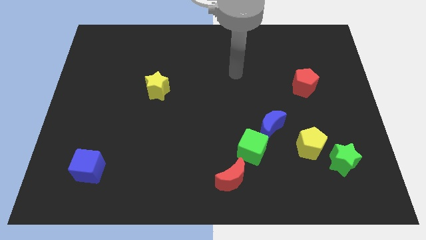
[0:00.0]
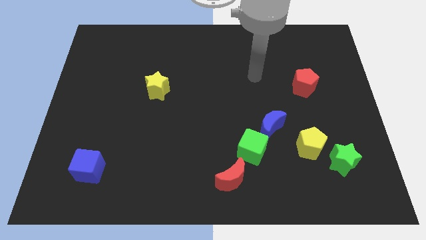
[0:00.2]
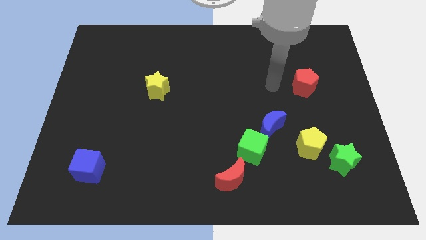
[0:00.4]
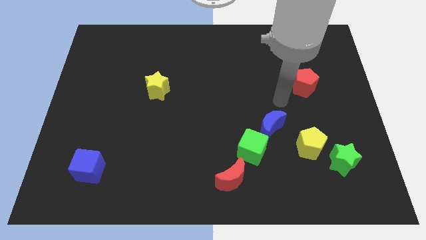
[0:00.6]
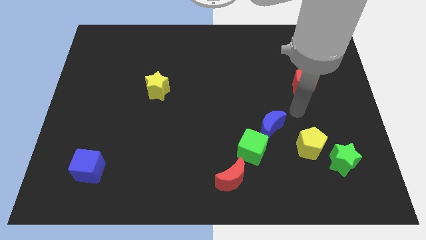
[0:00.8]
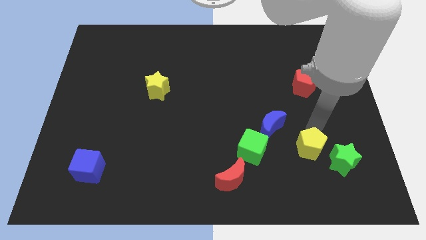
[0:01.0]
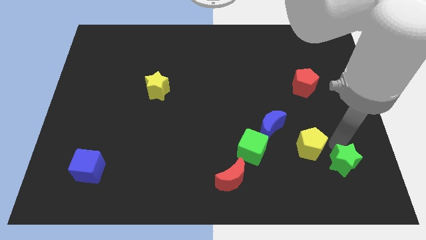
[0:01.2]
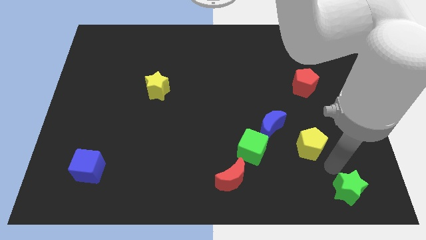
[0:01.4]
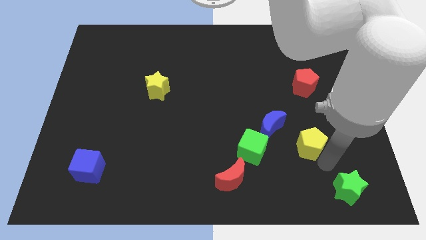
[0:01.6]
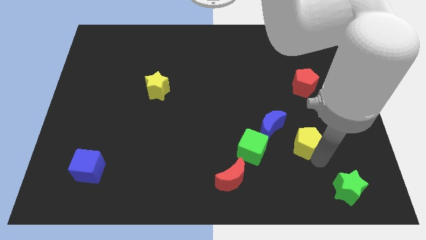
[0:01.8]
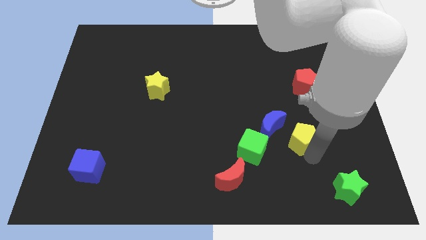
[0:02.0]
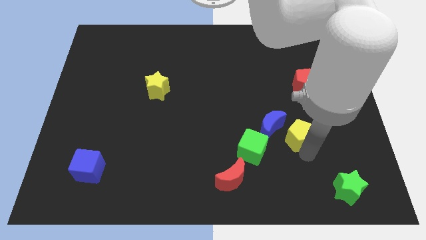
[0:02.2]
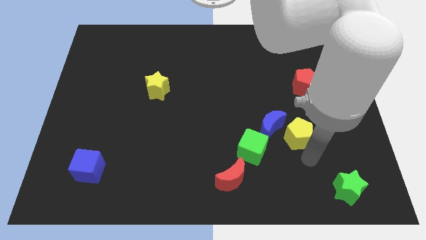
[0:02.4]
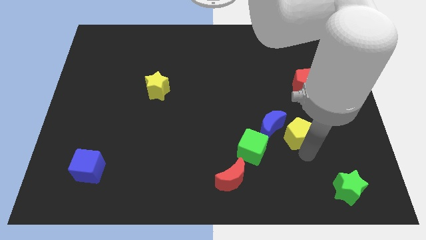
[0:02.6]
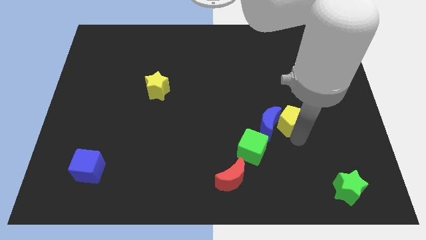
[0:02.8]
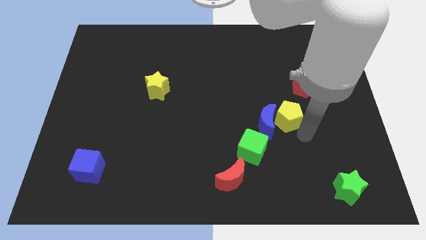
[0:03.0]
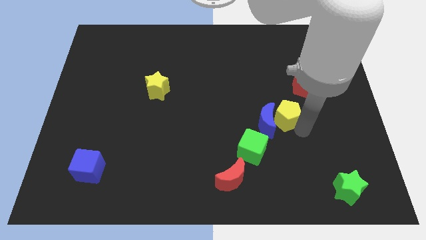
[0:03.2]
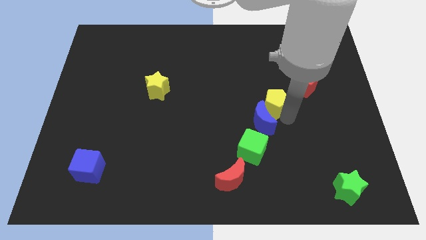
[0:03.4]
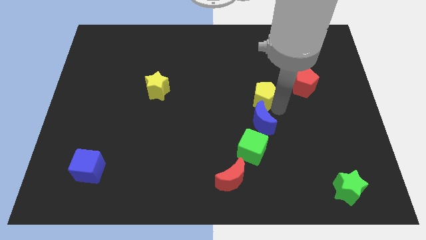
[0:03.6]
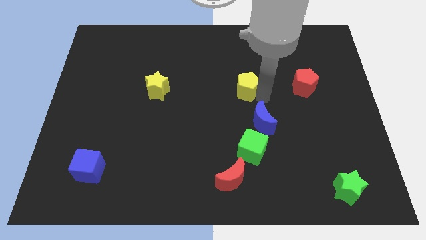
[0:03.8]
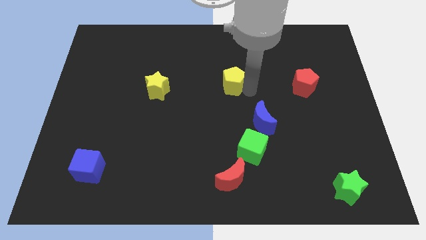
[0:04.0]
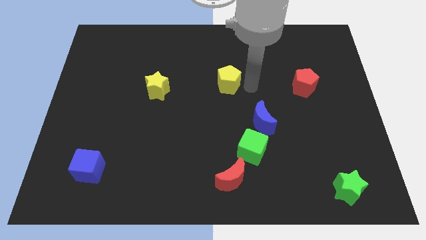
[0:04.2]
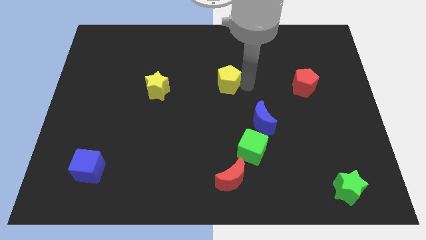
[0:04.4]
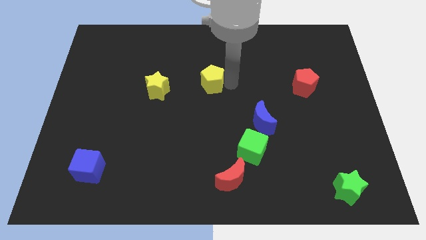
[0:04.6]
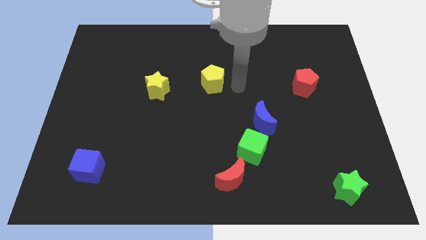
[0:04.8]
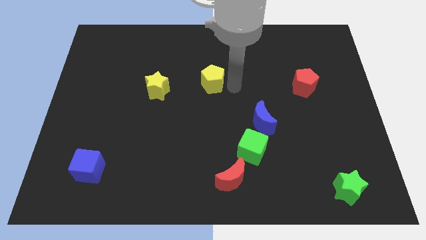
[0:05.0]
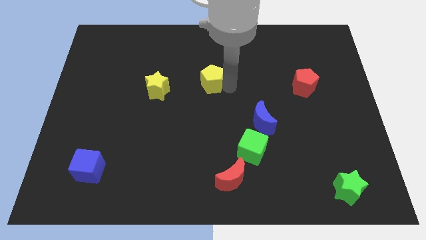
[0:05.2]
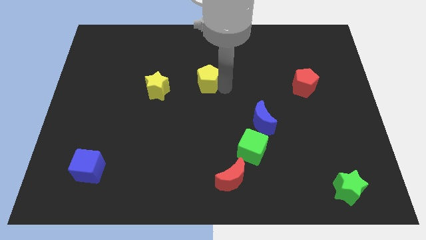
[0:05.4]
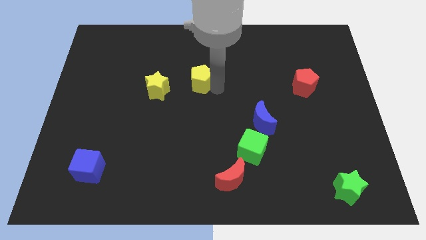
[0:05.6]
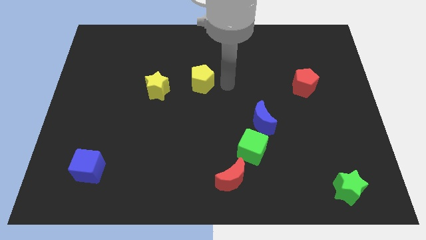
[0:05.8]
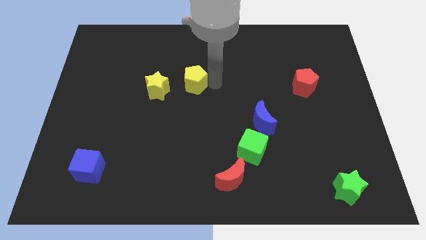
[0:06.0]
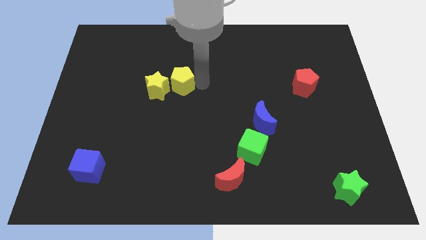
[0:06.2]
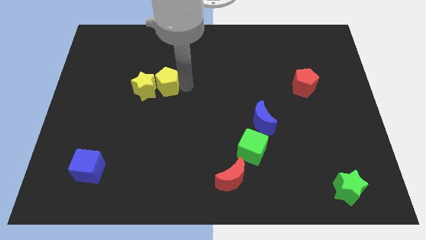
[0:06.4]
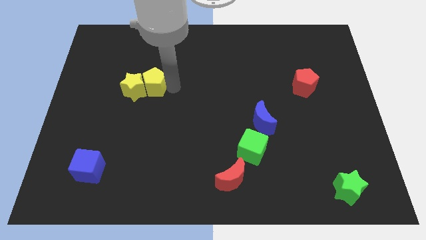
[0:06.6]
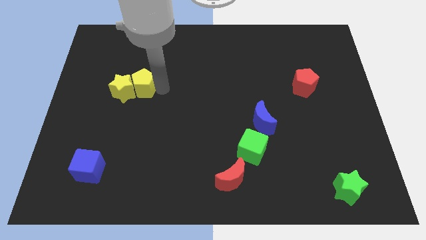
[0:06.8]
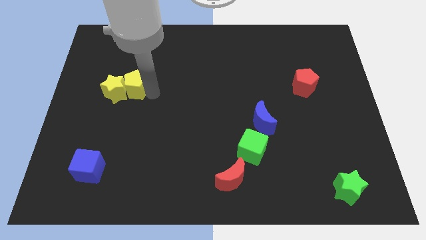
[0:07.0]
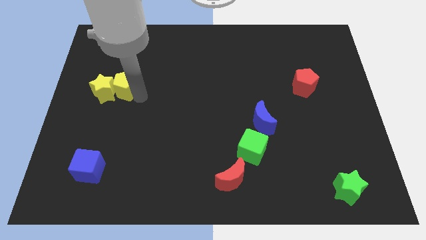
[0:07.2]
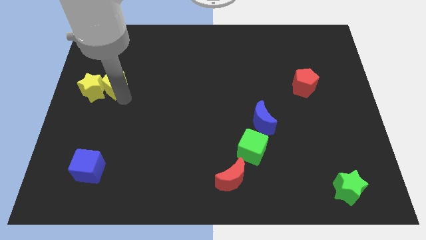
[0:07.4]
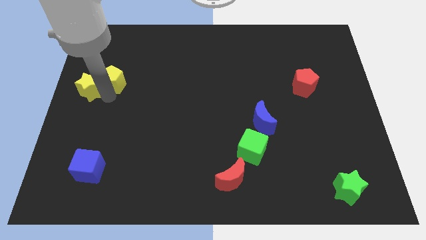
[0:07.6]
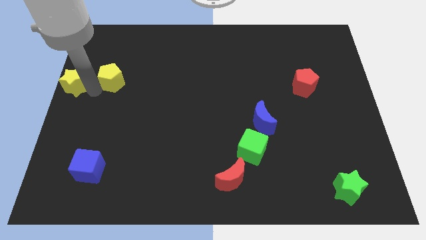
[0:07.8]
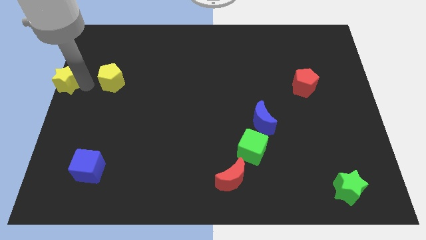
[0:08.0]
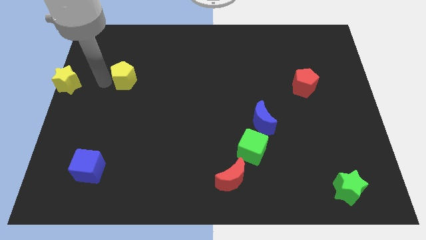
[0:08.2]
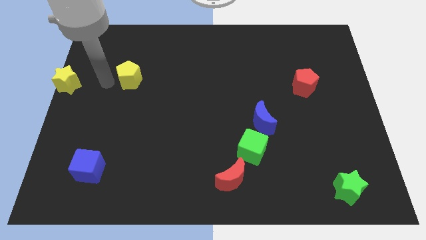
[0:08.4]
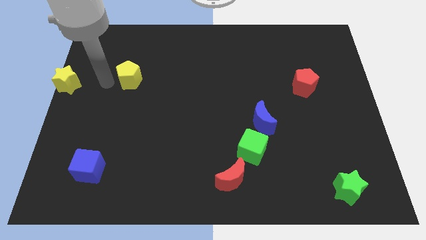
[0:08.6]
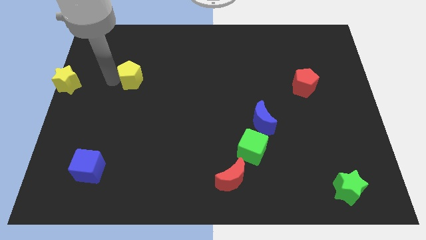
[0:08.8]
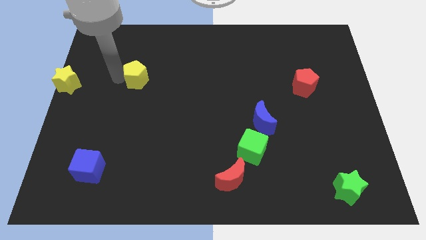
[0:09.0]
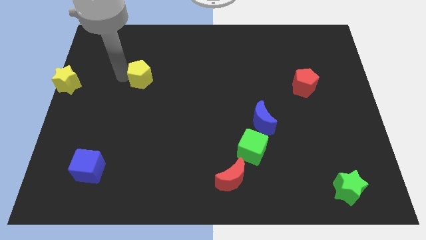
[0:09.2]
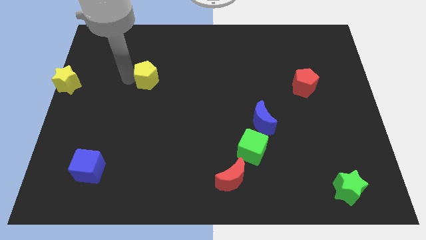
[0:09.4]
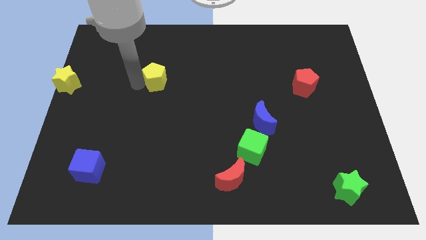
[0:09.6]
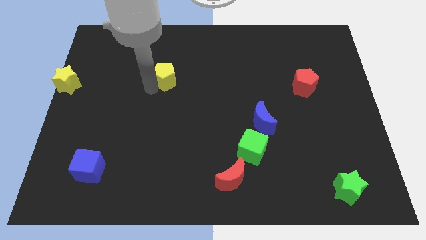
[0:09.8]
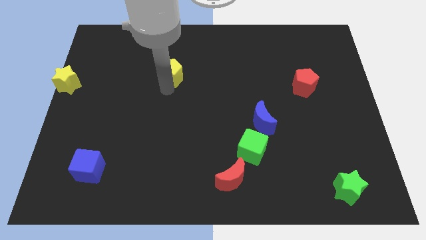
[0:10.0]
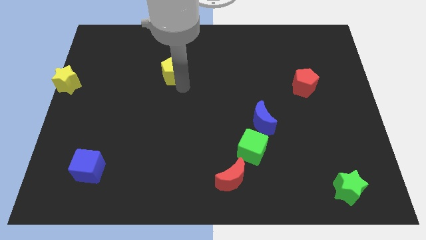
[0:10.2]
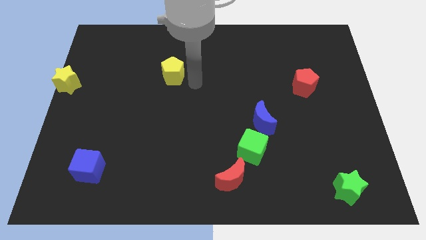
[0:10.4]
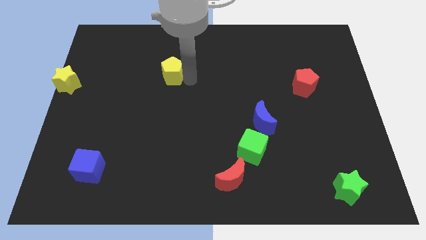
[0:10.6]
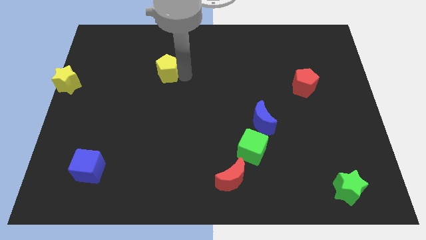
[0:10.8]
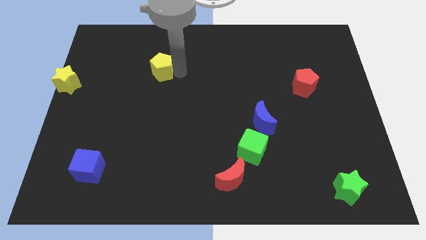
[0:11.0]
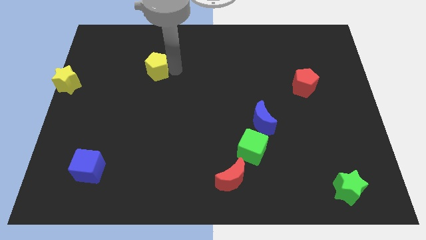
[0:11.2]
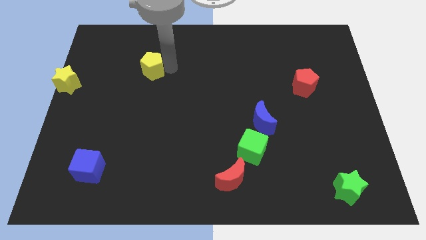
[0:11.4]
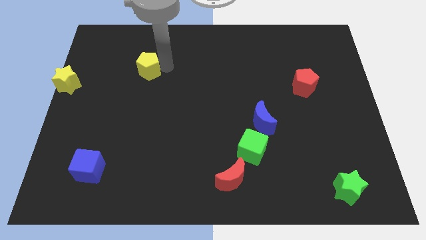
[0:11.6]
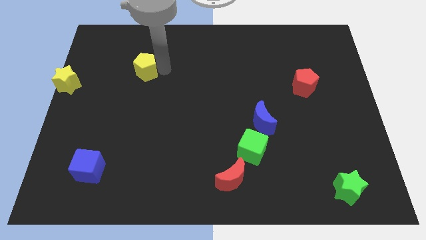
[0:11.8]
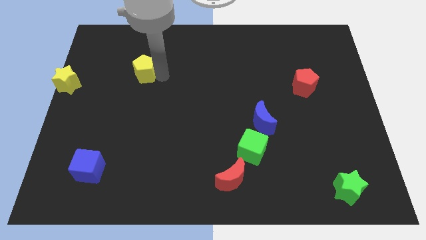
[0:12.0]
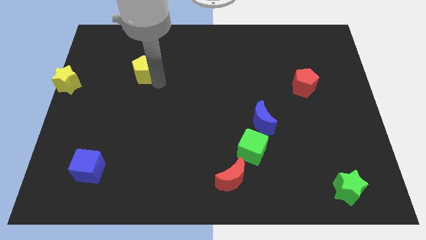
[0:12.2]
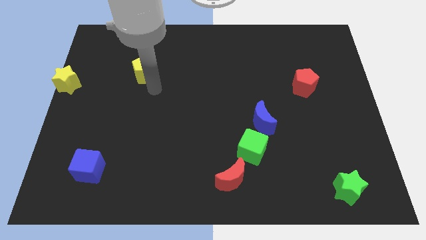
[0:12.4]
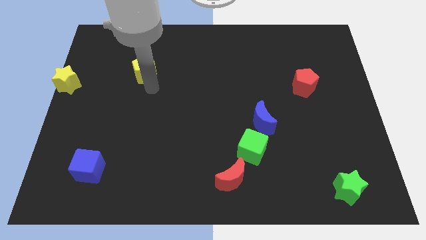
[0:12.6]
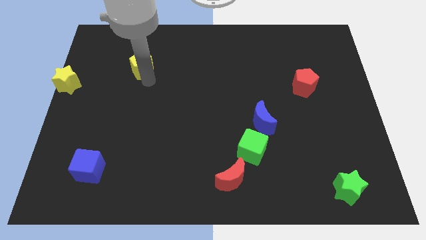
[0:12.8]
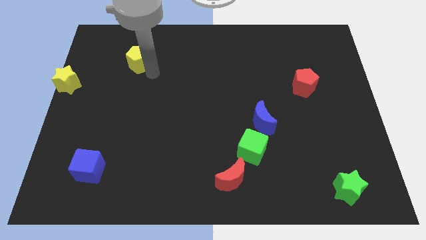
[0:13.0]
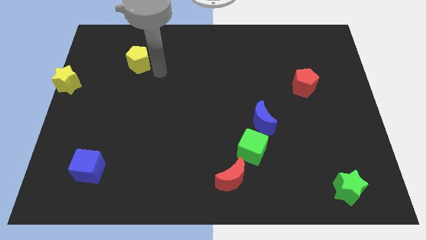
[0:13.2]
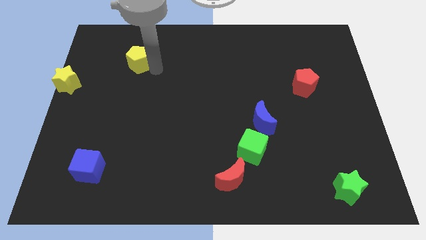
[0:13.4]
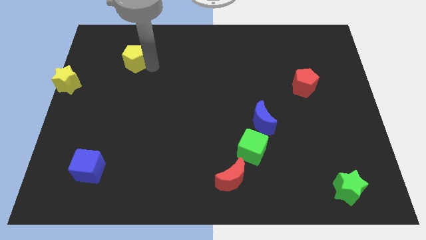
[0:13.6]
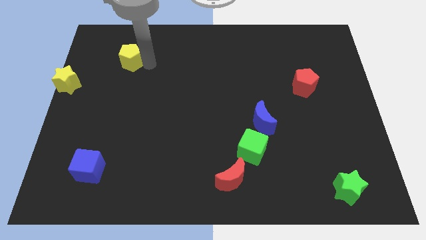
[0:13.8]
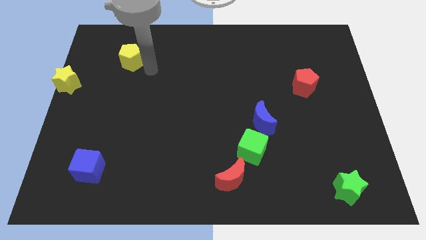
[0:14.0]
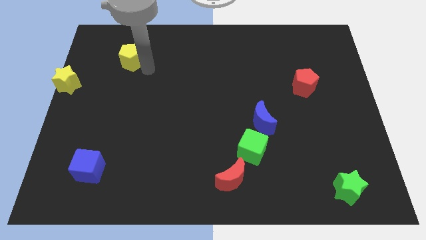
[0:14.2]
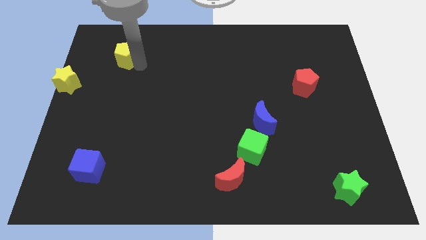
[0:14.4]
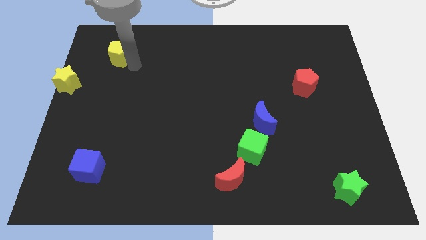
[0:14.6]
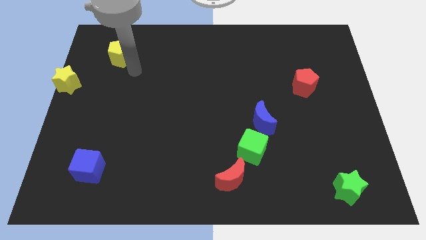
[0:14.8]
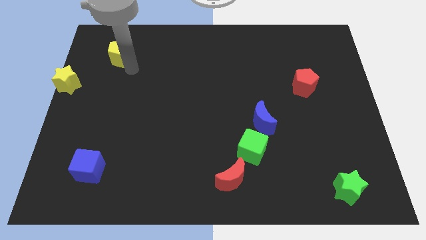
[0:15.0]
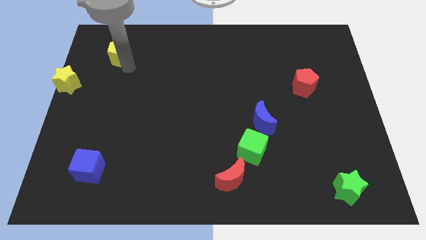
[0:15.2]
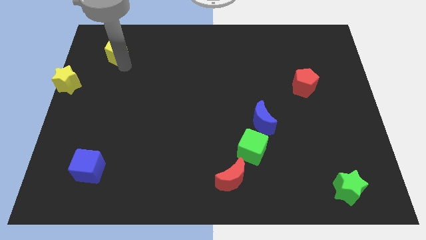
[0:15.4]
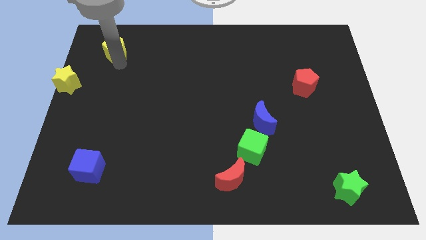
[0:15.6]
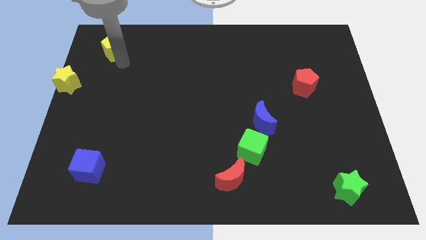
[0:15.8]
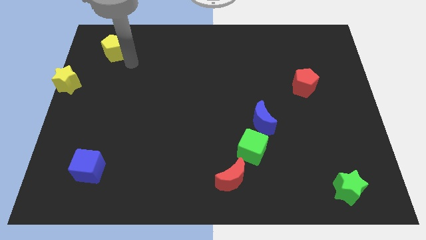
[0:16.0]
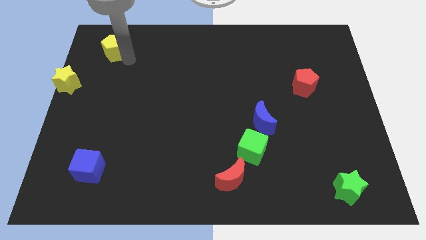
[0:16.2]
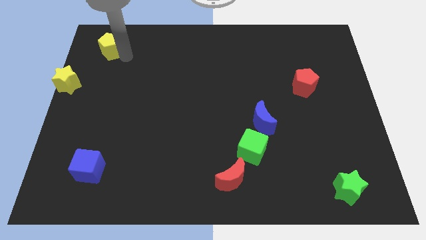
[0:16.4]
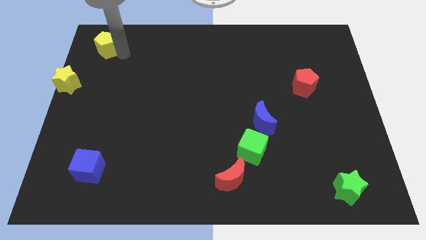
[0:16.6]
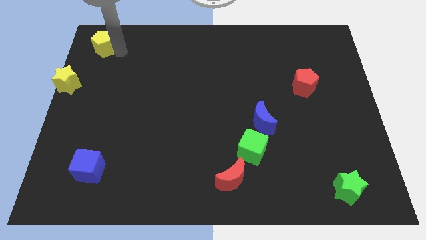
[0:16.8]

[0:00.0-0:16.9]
put the yellow pentagon to the top left of the board
